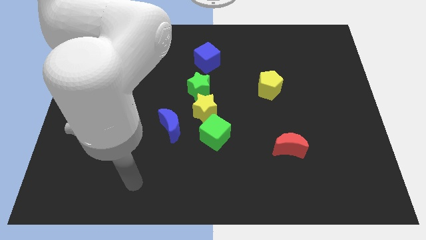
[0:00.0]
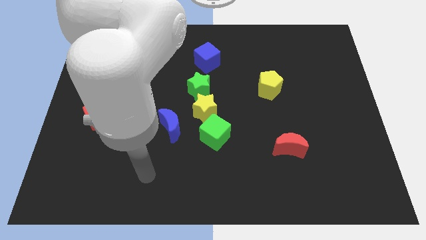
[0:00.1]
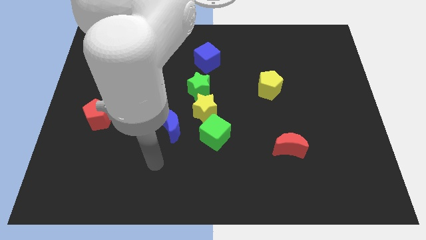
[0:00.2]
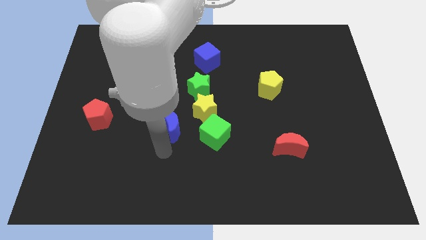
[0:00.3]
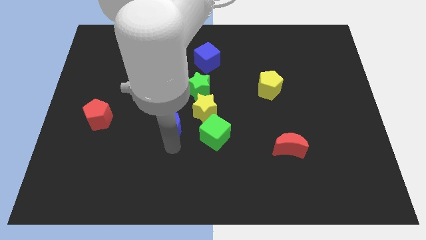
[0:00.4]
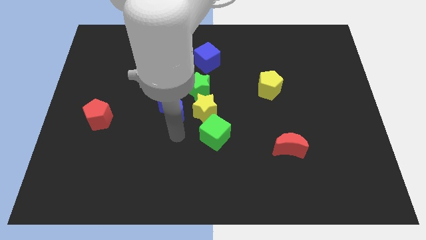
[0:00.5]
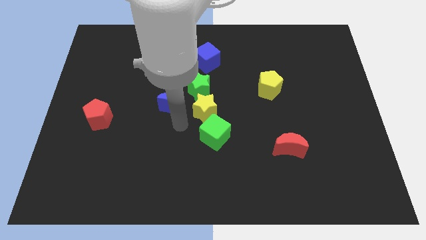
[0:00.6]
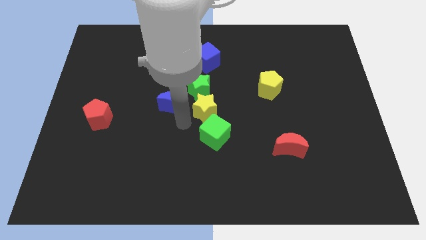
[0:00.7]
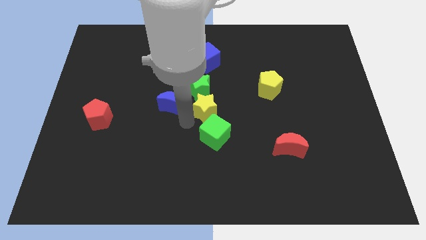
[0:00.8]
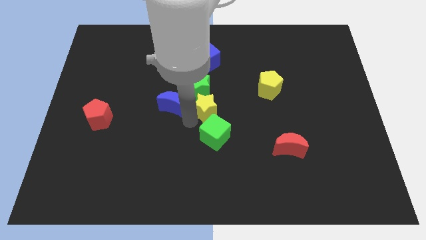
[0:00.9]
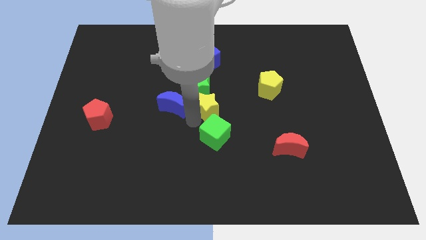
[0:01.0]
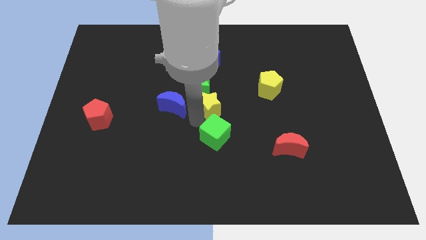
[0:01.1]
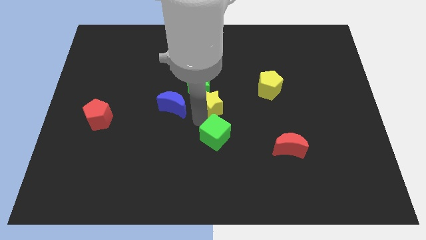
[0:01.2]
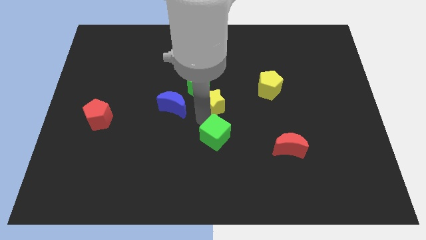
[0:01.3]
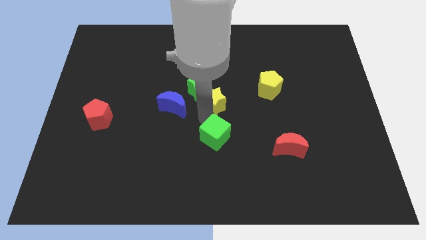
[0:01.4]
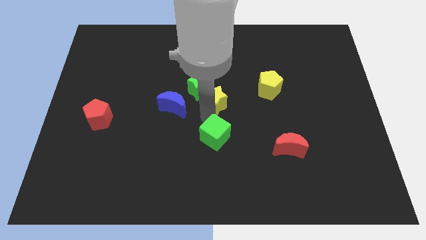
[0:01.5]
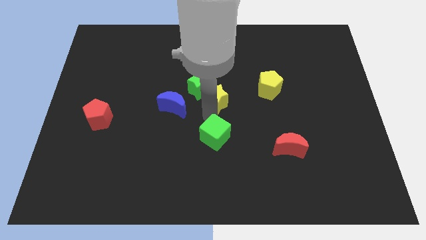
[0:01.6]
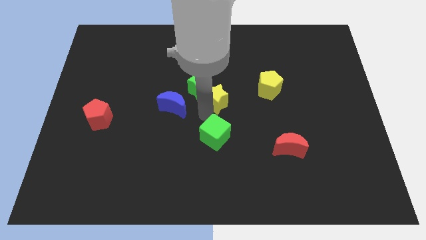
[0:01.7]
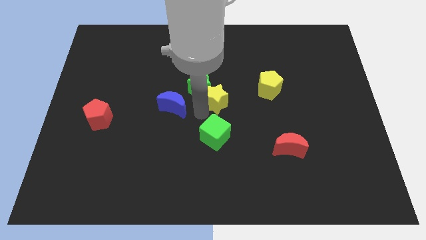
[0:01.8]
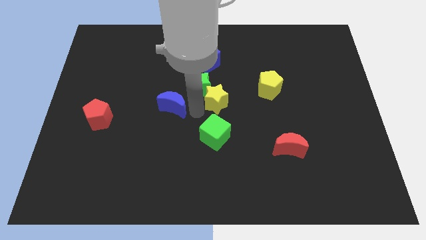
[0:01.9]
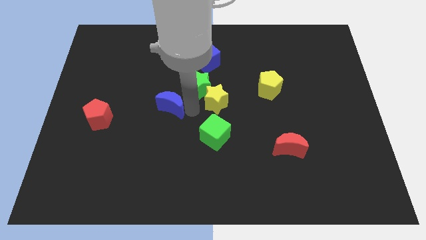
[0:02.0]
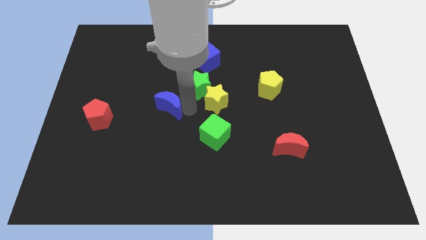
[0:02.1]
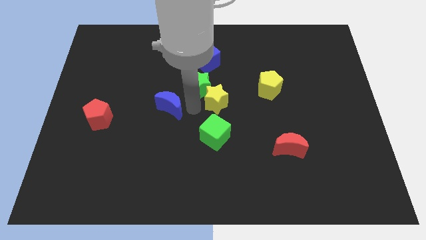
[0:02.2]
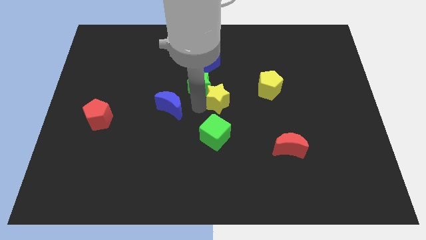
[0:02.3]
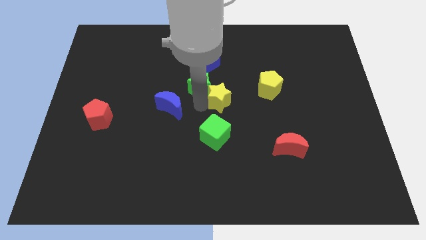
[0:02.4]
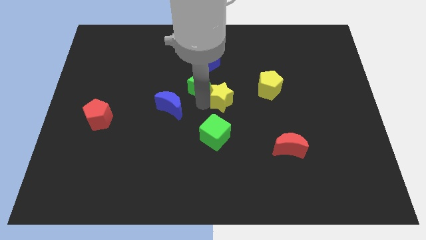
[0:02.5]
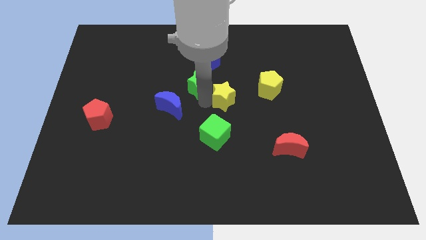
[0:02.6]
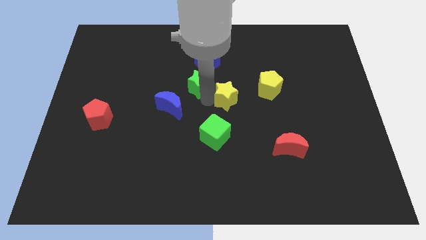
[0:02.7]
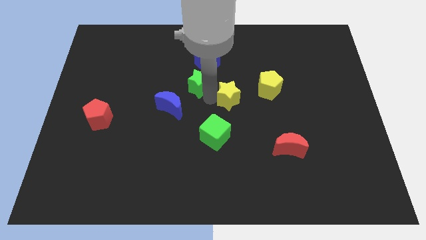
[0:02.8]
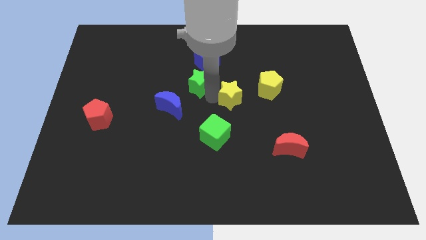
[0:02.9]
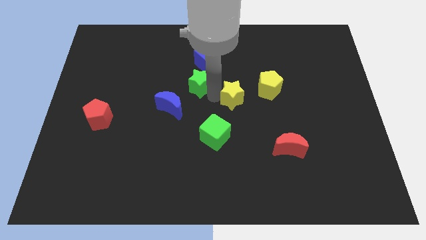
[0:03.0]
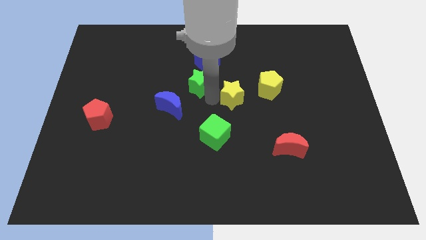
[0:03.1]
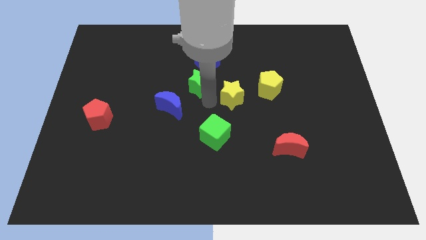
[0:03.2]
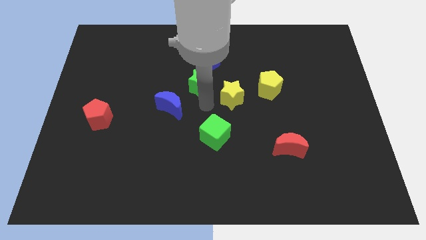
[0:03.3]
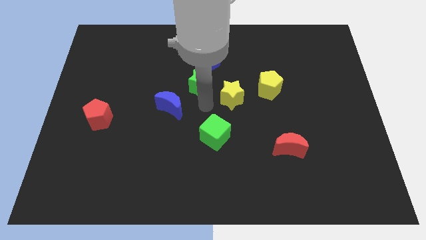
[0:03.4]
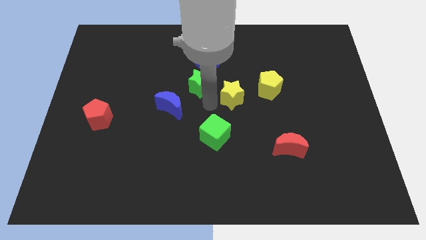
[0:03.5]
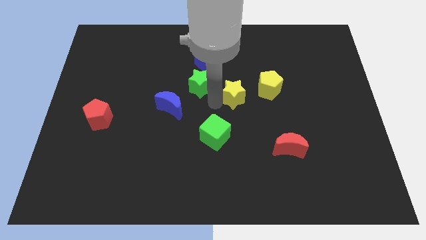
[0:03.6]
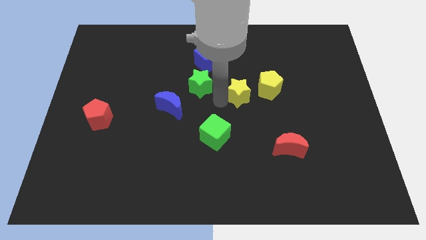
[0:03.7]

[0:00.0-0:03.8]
pull the yellow star apart from the green star, green cube, and blue moon

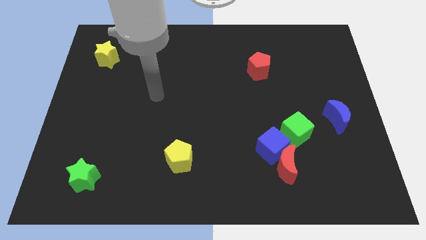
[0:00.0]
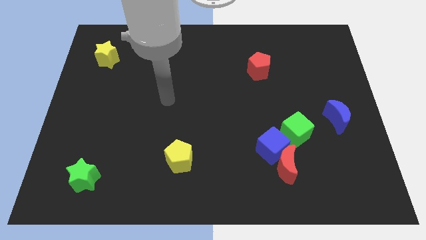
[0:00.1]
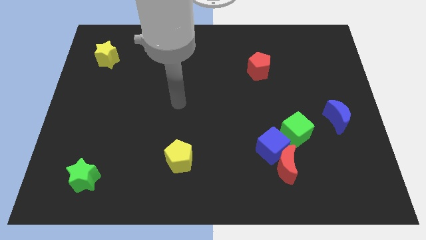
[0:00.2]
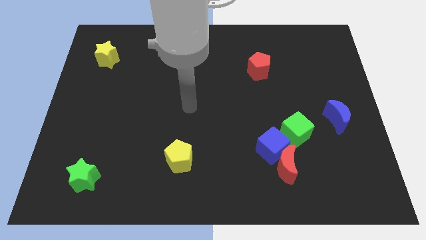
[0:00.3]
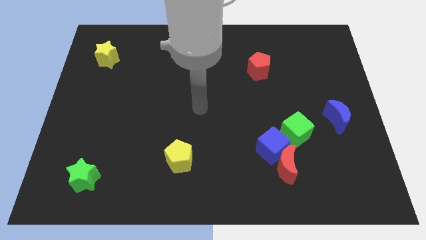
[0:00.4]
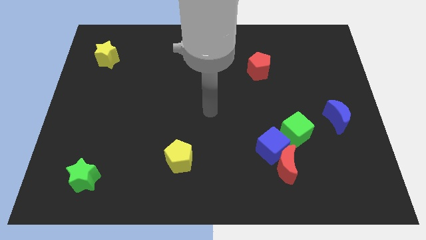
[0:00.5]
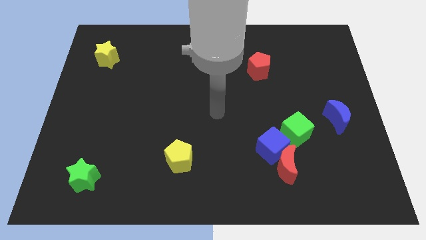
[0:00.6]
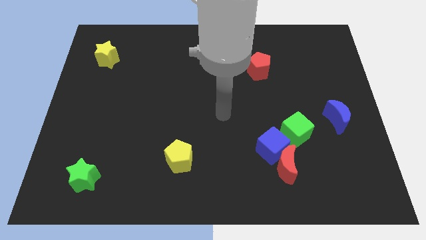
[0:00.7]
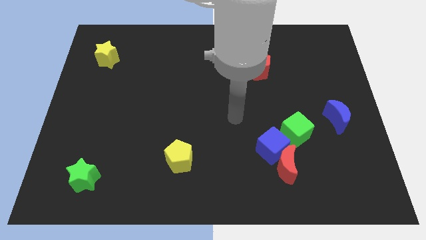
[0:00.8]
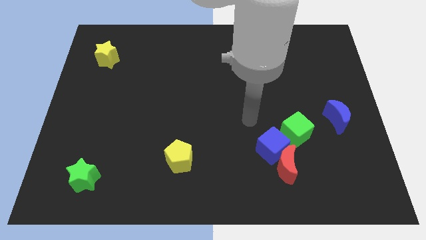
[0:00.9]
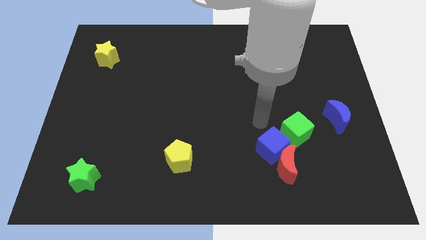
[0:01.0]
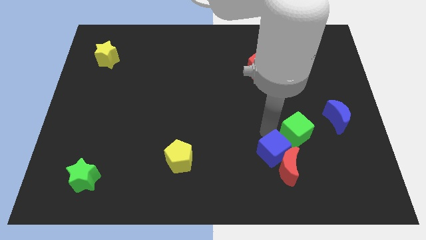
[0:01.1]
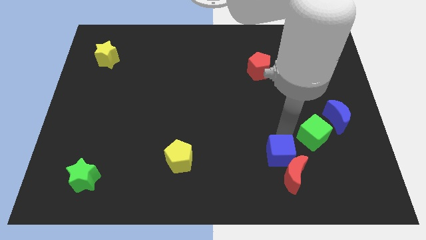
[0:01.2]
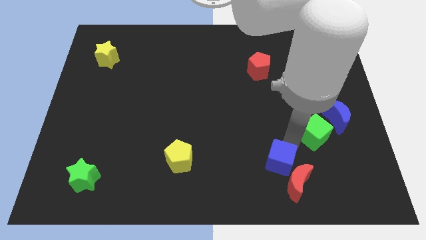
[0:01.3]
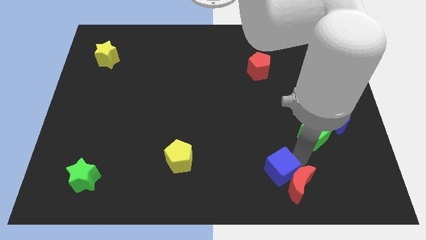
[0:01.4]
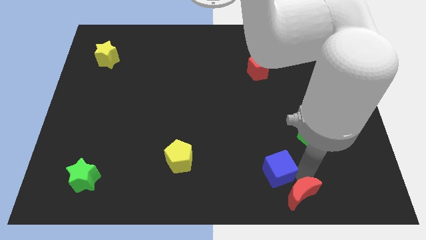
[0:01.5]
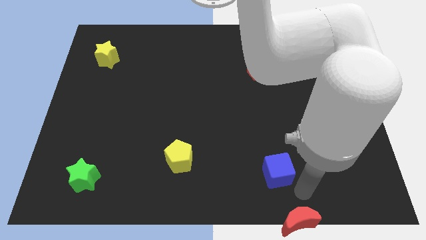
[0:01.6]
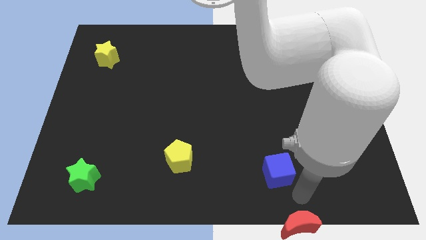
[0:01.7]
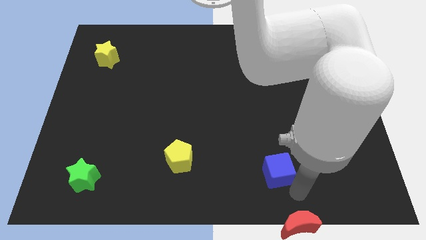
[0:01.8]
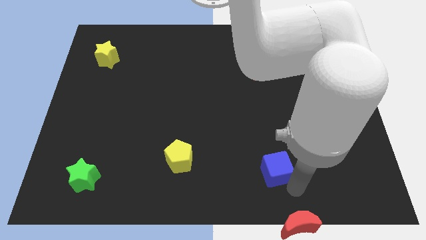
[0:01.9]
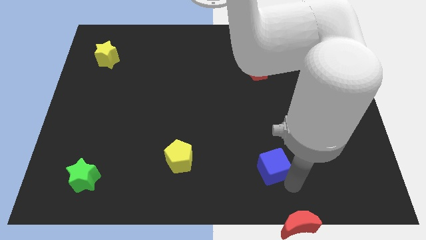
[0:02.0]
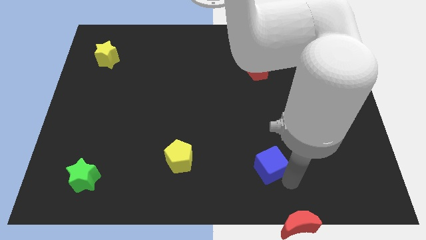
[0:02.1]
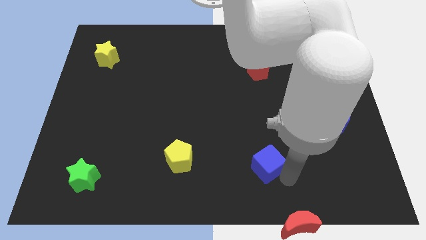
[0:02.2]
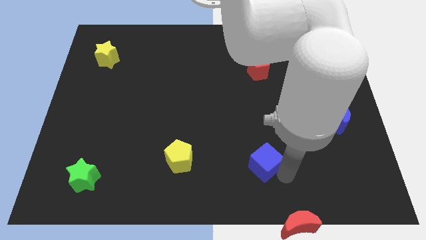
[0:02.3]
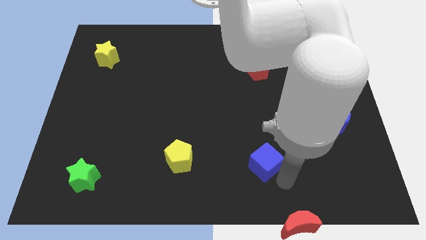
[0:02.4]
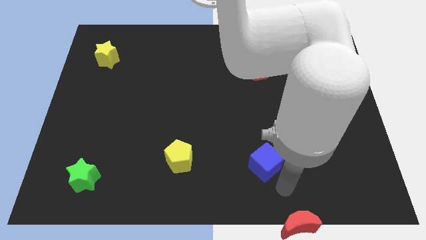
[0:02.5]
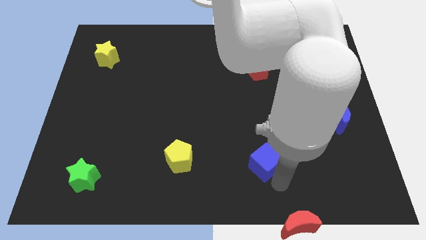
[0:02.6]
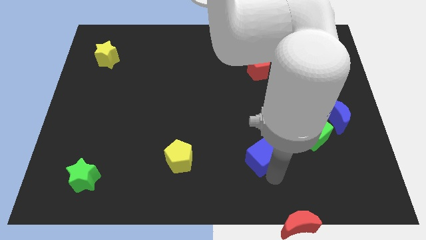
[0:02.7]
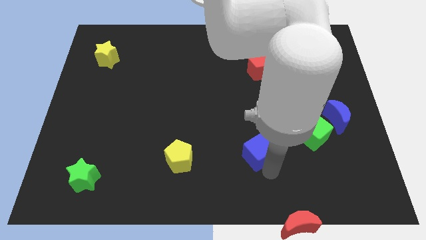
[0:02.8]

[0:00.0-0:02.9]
pull the blue cube apart from the red moon and green cube

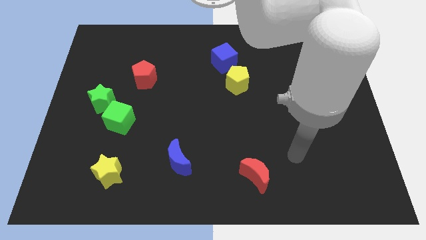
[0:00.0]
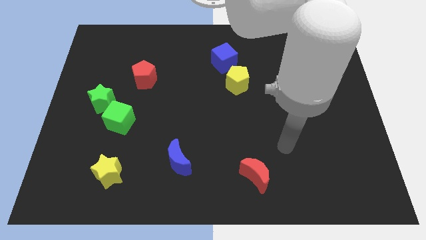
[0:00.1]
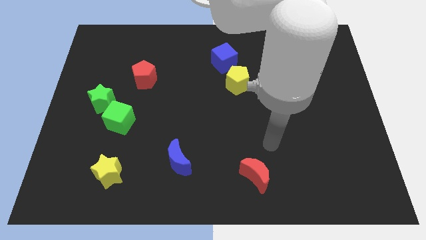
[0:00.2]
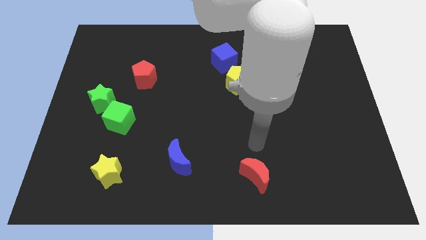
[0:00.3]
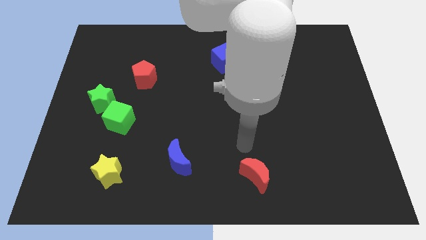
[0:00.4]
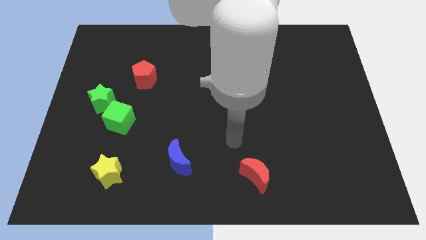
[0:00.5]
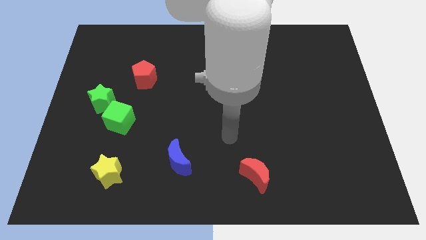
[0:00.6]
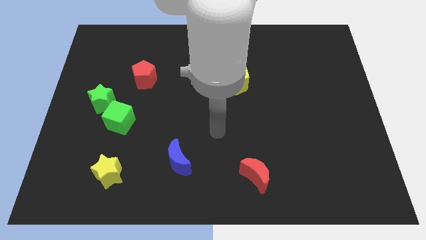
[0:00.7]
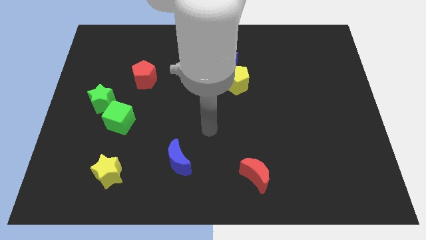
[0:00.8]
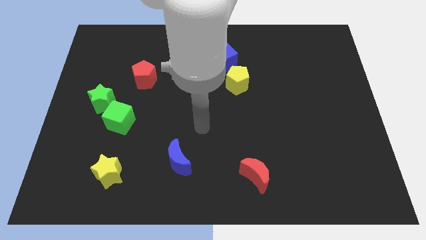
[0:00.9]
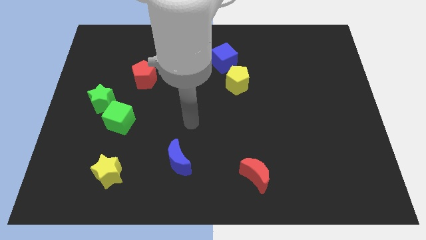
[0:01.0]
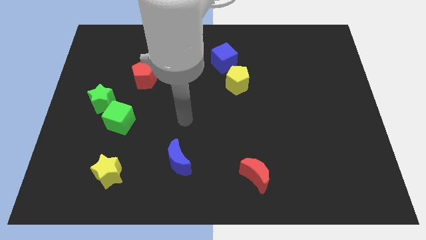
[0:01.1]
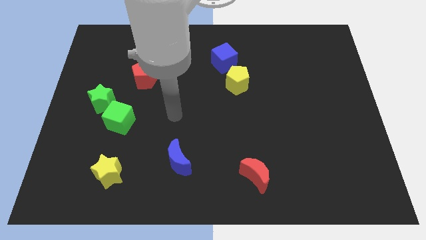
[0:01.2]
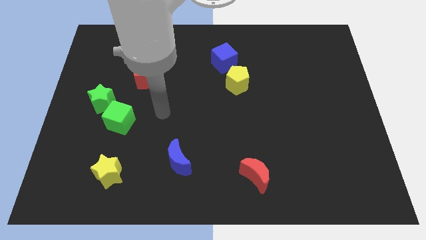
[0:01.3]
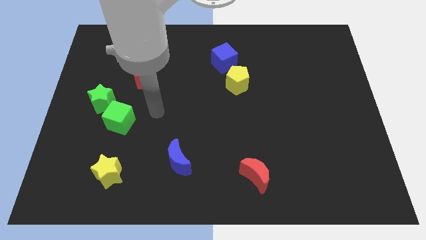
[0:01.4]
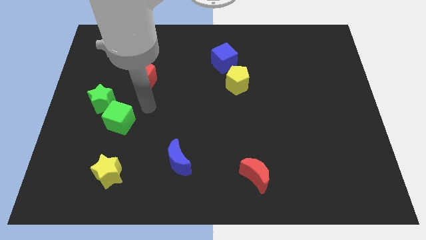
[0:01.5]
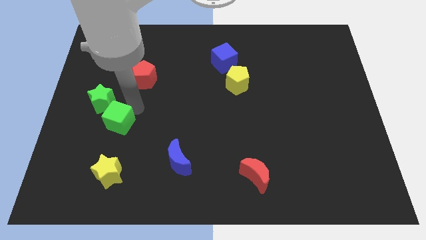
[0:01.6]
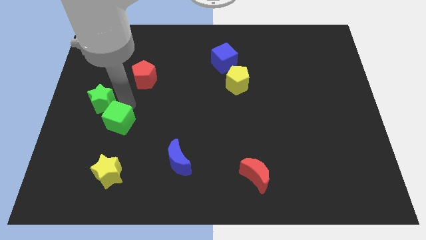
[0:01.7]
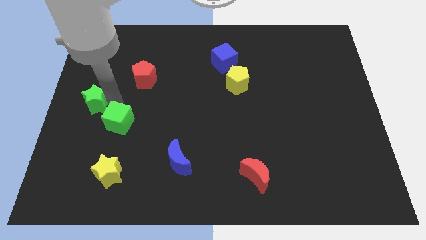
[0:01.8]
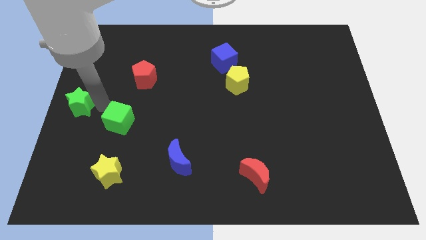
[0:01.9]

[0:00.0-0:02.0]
separate the green cube from the green star

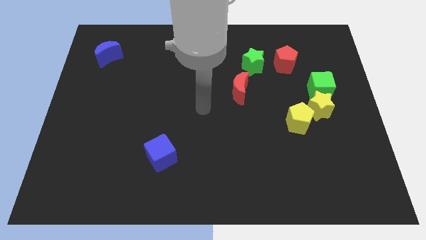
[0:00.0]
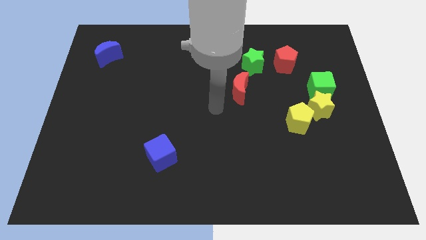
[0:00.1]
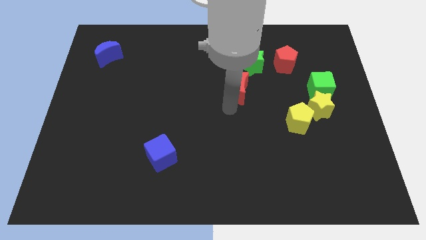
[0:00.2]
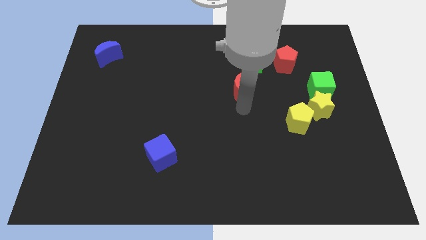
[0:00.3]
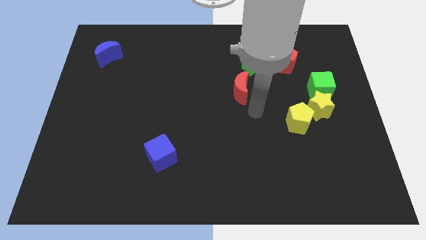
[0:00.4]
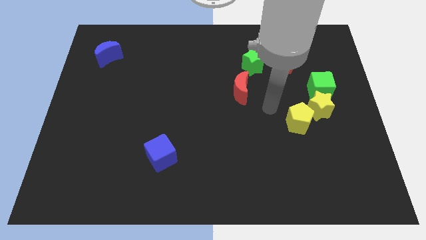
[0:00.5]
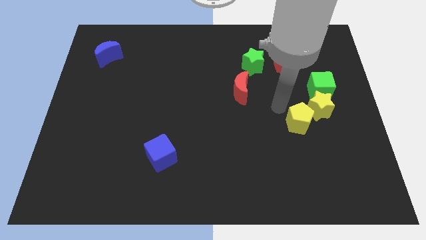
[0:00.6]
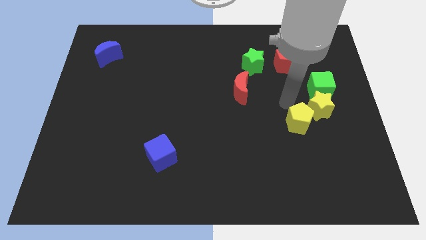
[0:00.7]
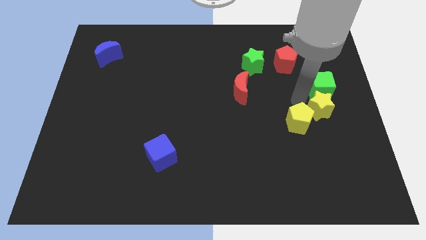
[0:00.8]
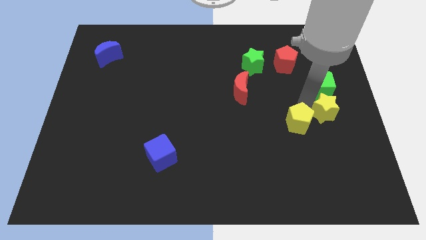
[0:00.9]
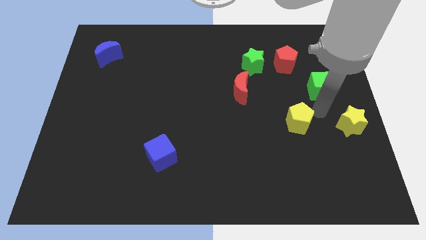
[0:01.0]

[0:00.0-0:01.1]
pull the yellow pentagon apart from the yellow star
